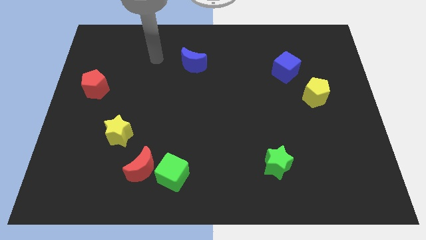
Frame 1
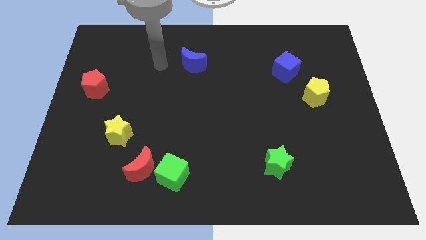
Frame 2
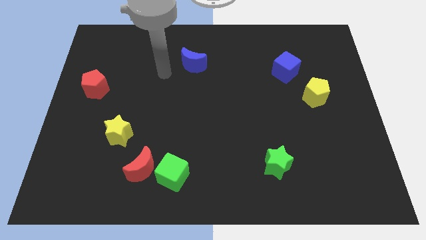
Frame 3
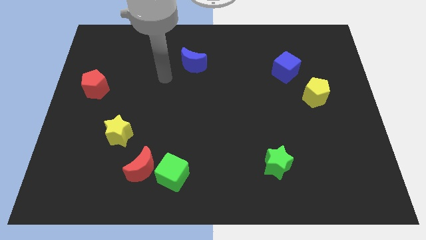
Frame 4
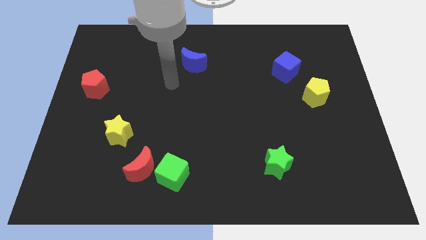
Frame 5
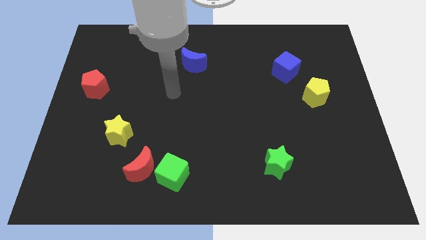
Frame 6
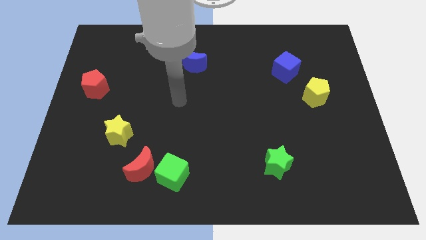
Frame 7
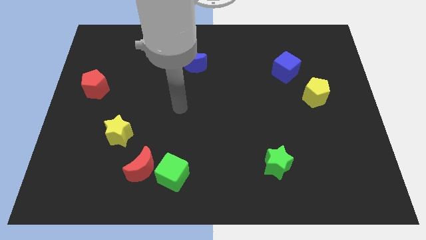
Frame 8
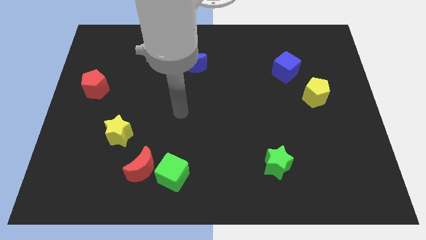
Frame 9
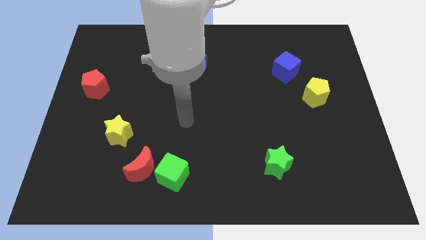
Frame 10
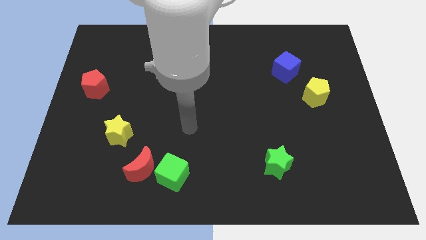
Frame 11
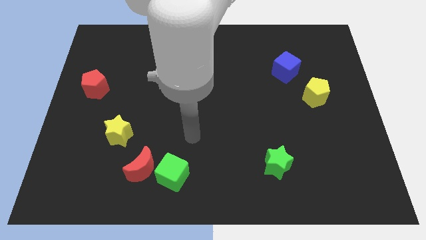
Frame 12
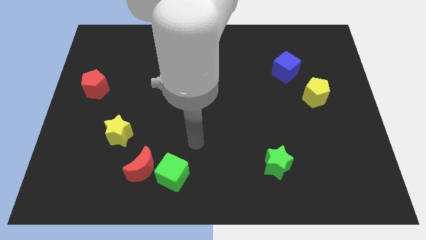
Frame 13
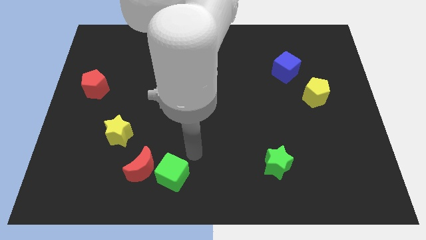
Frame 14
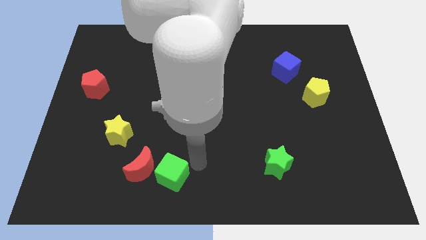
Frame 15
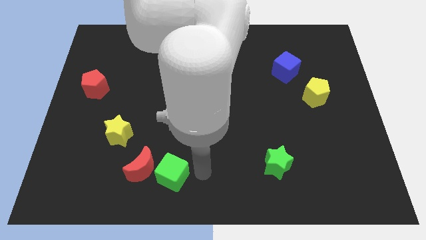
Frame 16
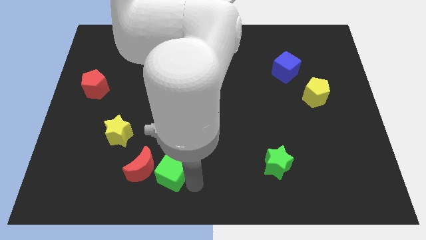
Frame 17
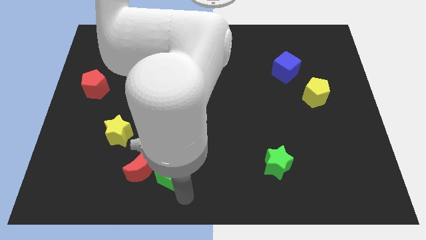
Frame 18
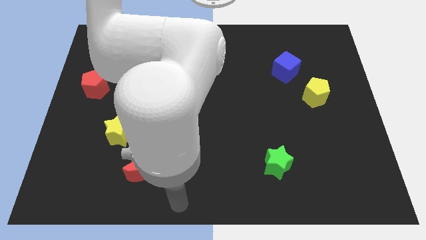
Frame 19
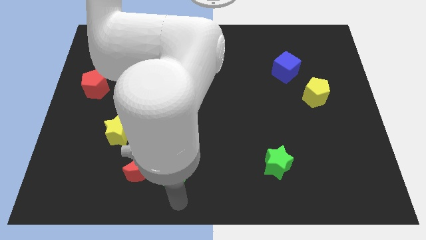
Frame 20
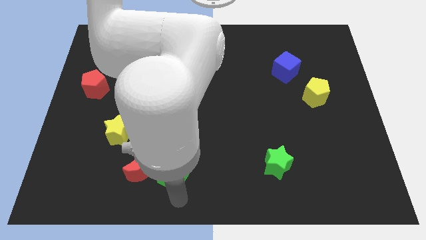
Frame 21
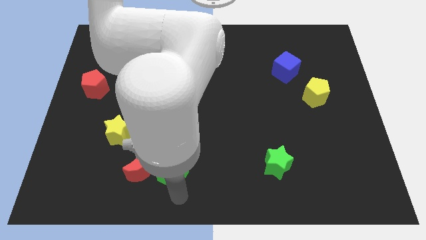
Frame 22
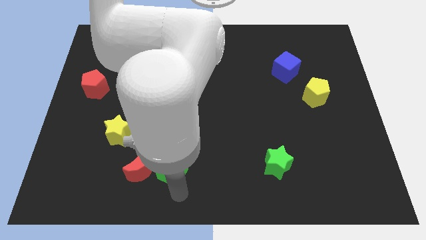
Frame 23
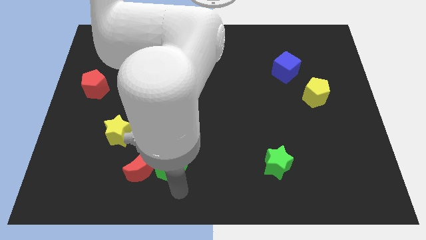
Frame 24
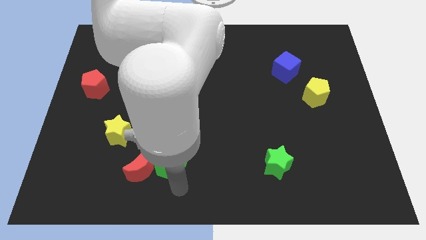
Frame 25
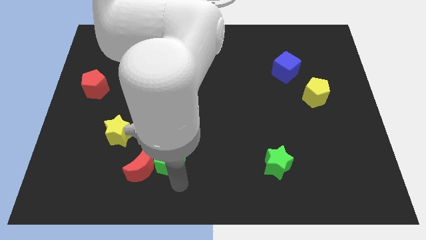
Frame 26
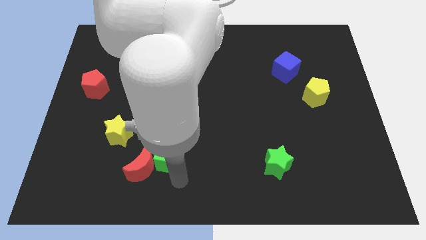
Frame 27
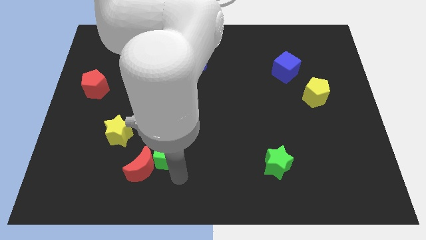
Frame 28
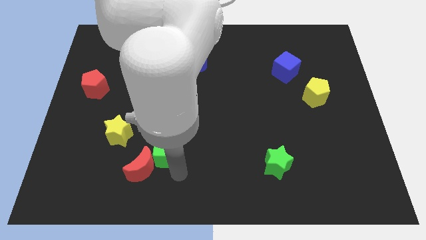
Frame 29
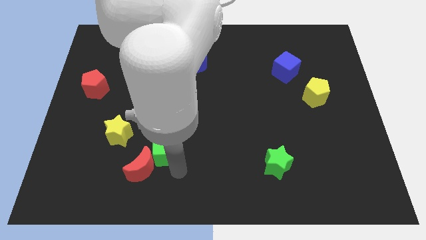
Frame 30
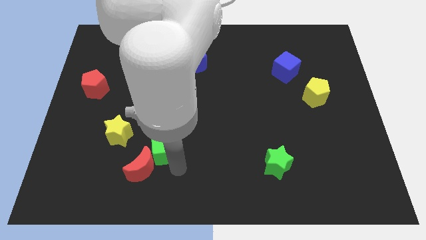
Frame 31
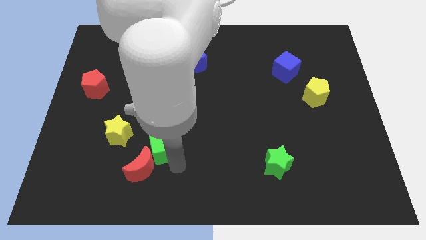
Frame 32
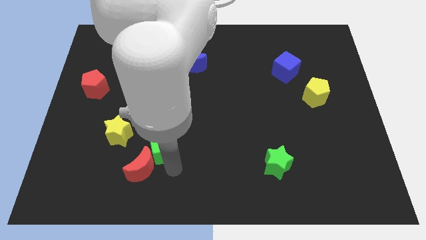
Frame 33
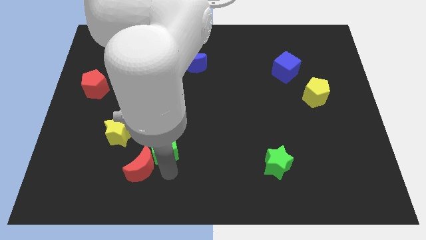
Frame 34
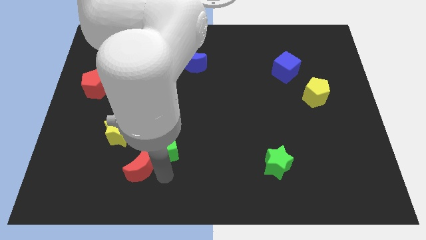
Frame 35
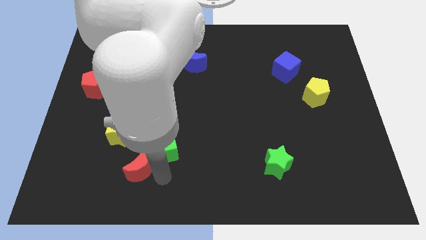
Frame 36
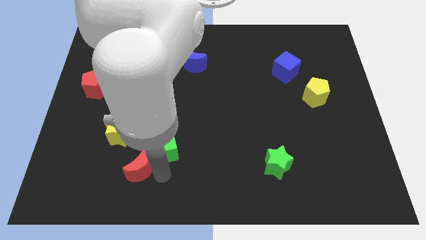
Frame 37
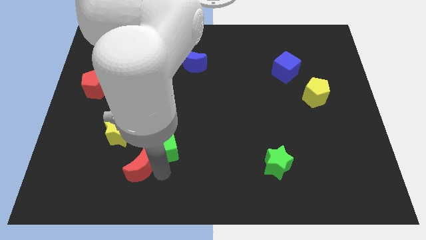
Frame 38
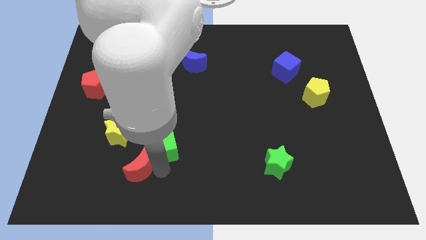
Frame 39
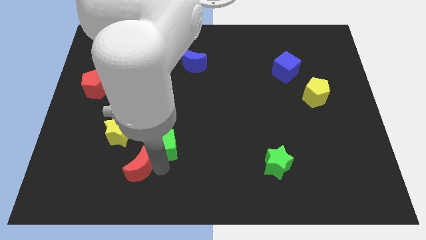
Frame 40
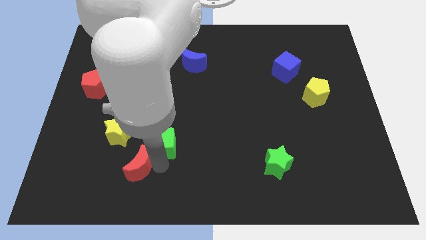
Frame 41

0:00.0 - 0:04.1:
push the green cube a little up

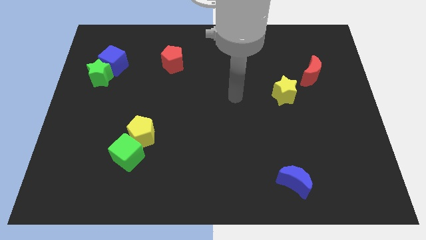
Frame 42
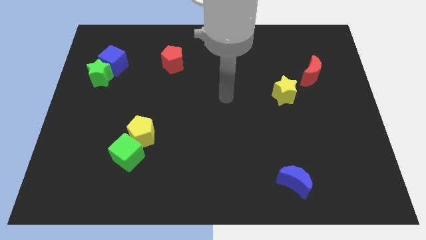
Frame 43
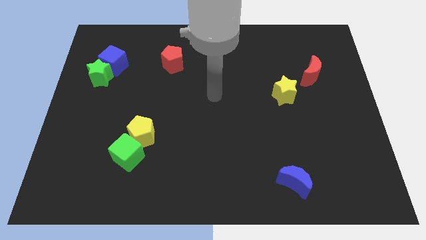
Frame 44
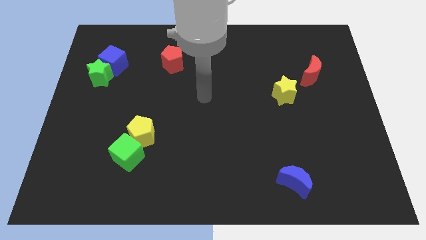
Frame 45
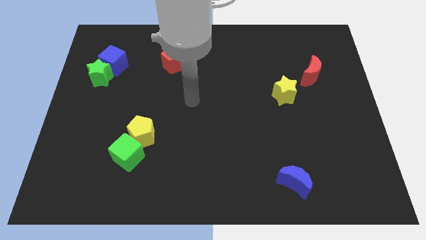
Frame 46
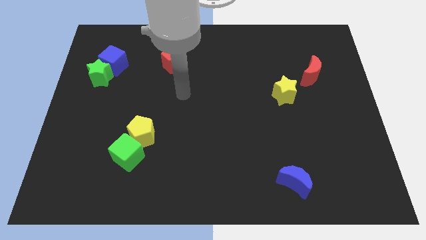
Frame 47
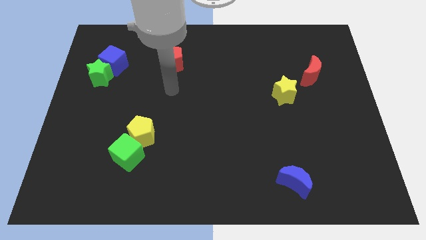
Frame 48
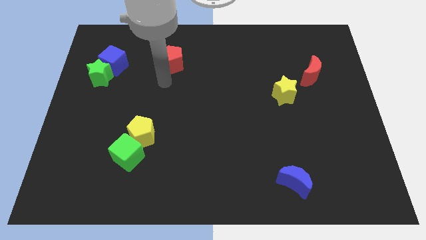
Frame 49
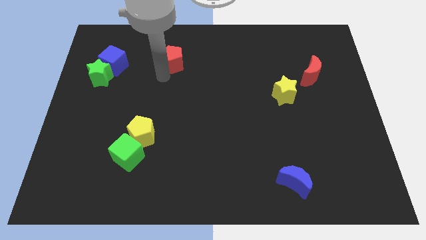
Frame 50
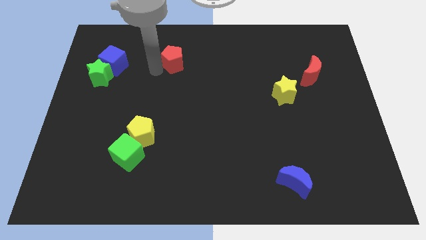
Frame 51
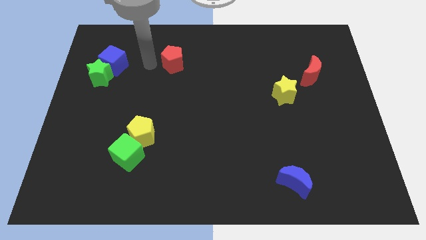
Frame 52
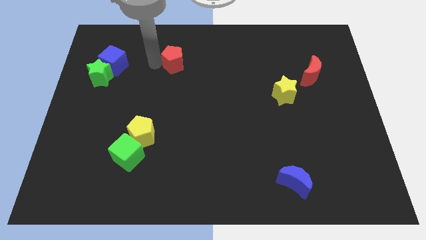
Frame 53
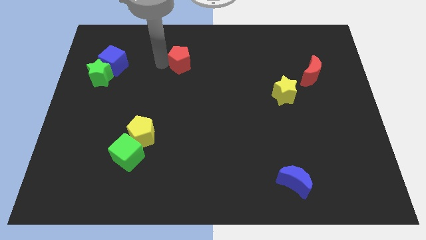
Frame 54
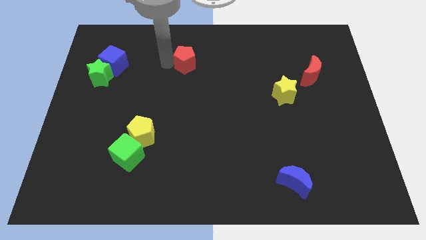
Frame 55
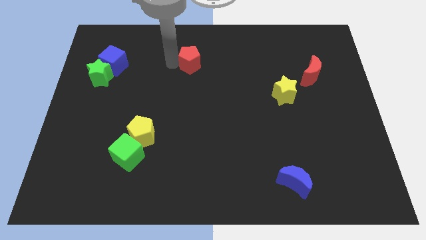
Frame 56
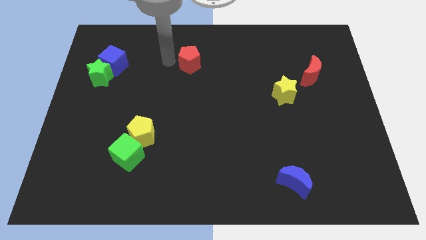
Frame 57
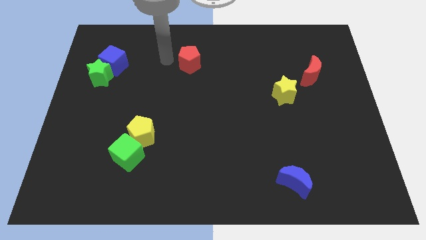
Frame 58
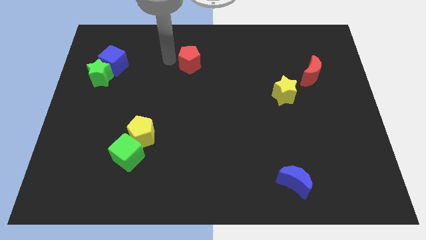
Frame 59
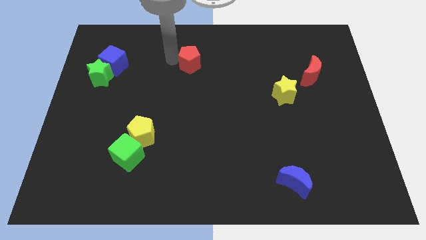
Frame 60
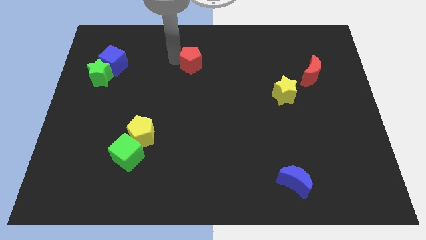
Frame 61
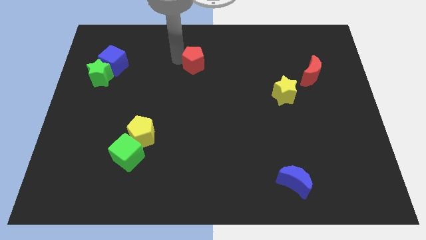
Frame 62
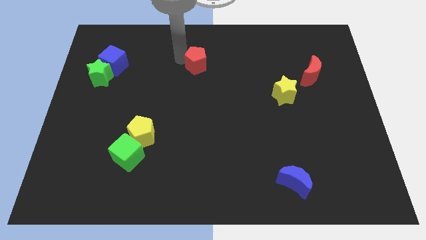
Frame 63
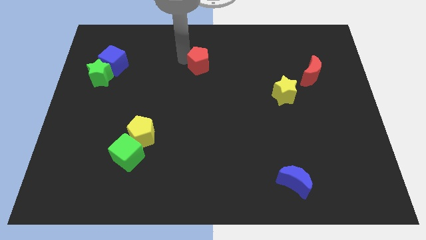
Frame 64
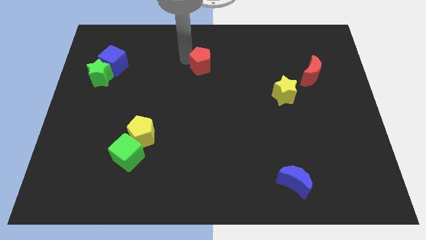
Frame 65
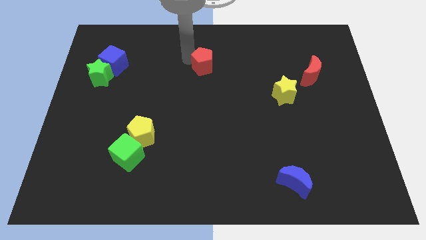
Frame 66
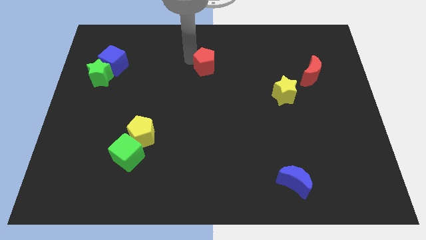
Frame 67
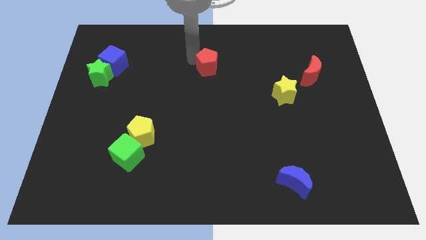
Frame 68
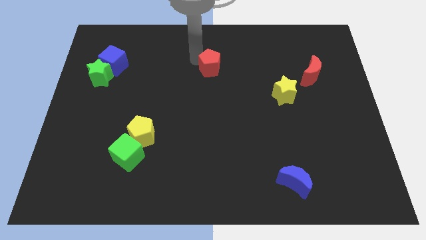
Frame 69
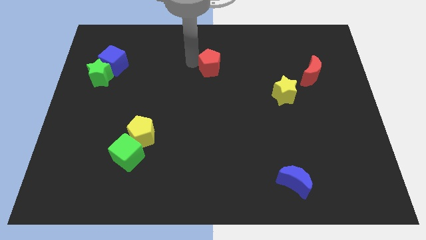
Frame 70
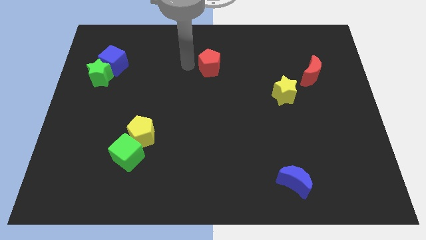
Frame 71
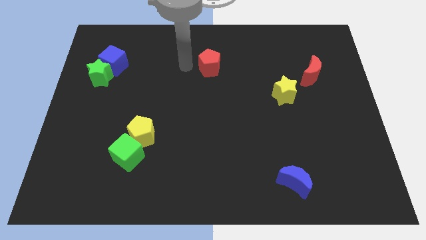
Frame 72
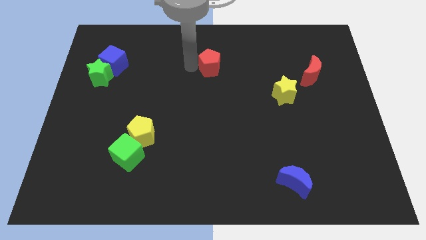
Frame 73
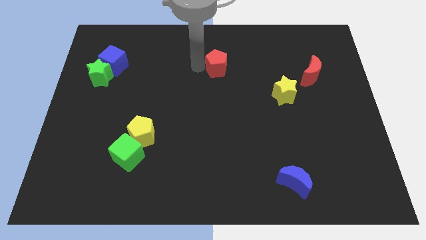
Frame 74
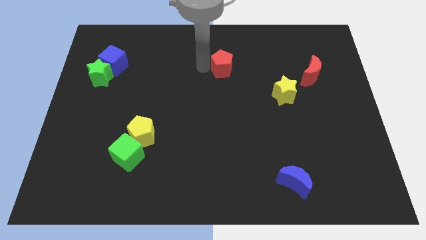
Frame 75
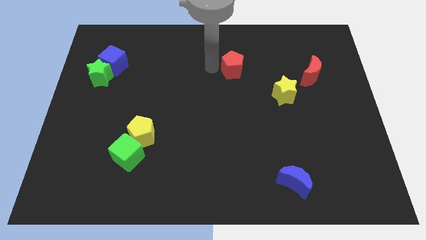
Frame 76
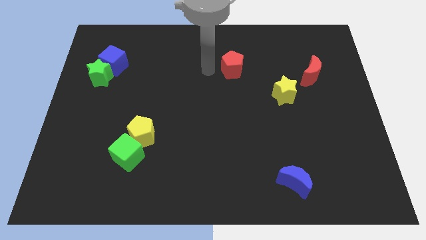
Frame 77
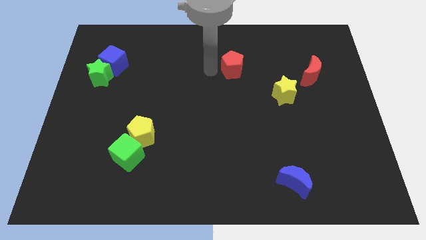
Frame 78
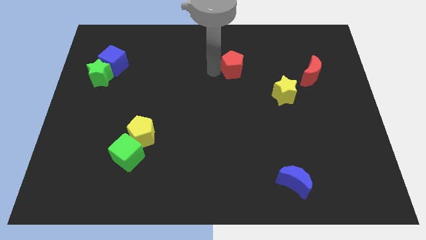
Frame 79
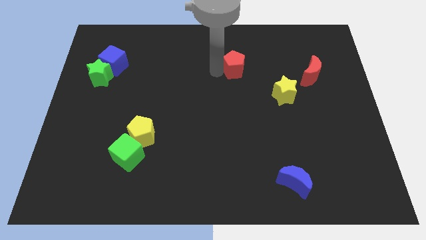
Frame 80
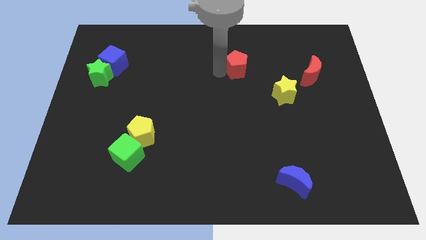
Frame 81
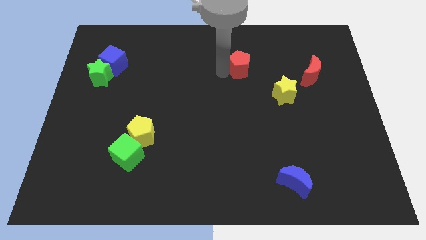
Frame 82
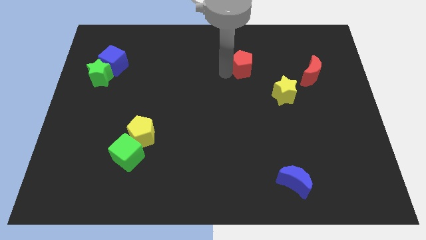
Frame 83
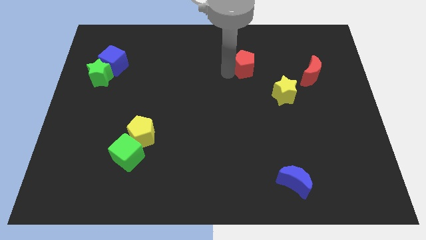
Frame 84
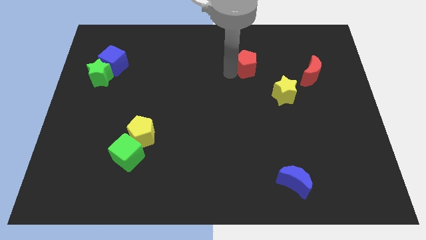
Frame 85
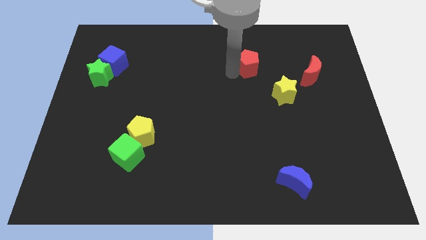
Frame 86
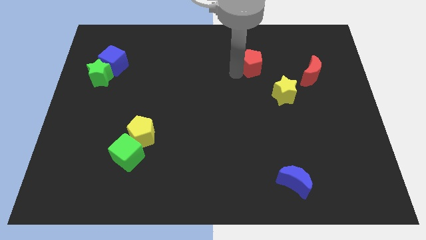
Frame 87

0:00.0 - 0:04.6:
slide the red pentagon to the right
